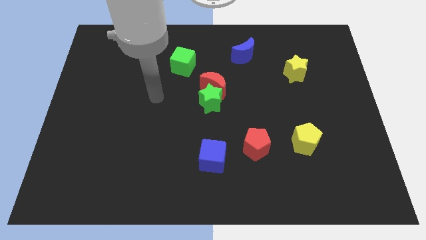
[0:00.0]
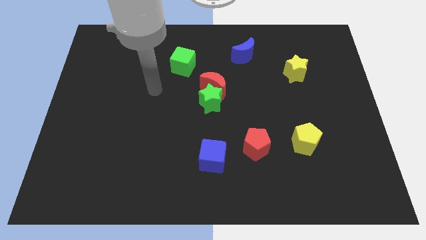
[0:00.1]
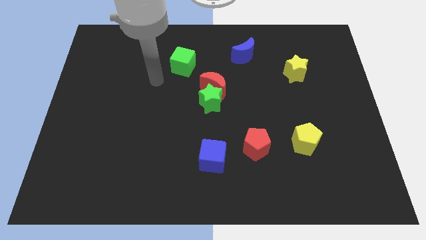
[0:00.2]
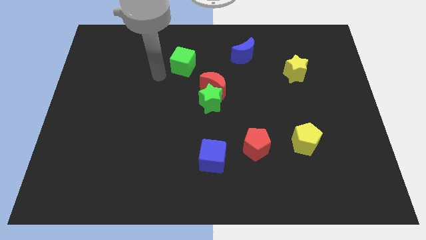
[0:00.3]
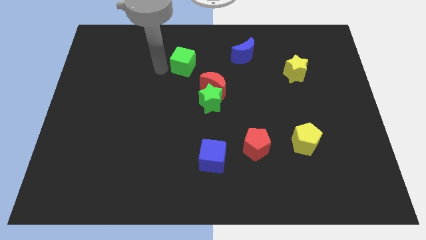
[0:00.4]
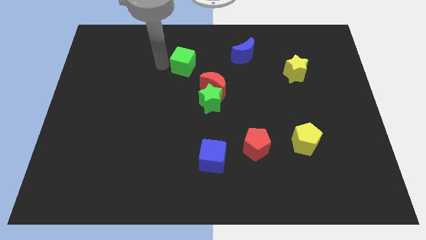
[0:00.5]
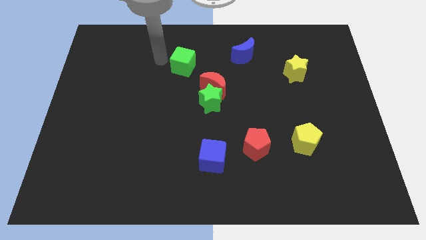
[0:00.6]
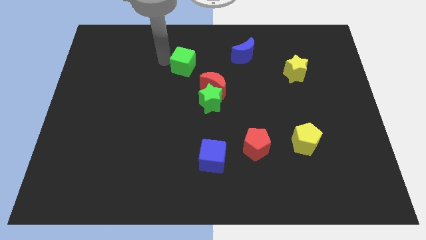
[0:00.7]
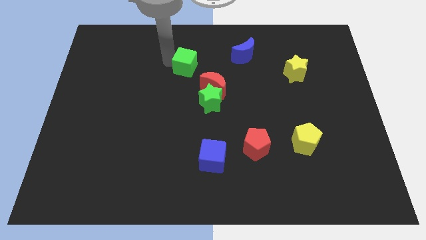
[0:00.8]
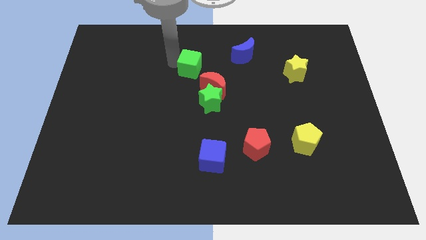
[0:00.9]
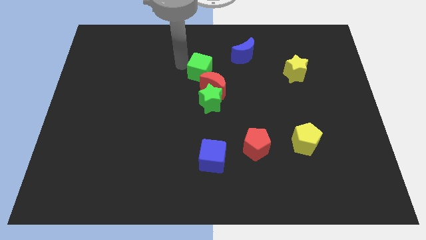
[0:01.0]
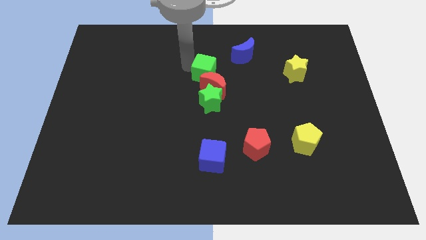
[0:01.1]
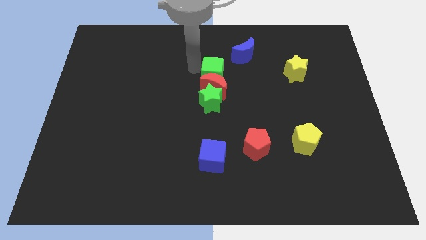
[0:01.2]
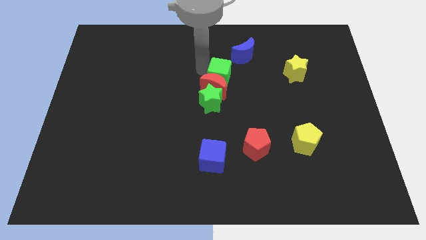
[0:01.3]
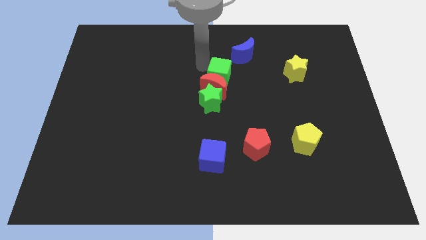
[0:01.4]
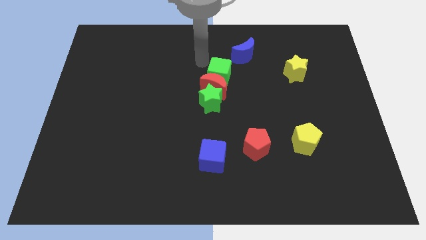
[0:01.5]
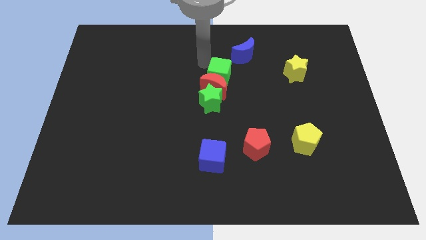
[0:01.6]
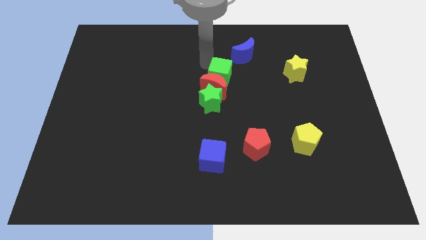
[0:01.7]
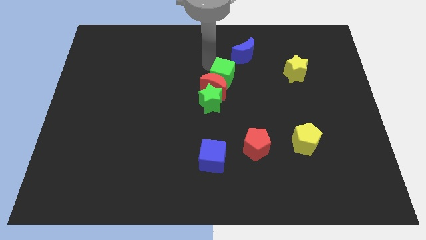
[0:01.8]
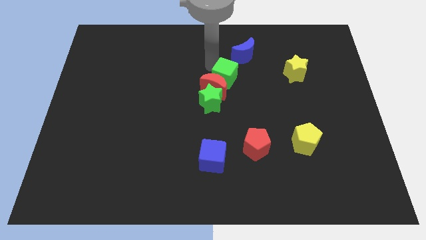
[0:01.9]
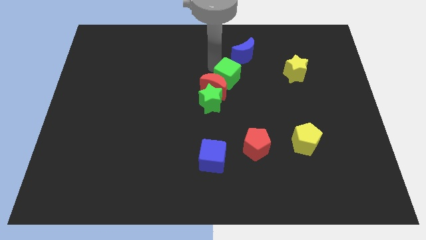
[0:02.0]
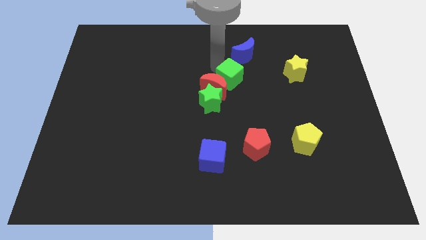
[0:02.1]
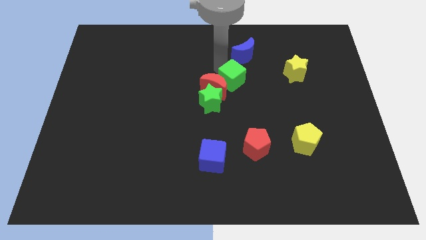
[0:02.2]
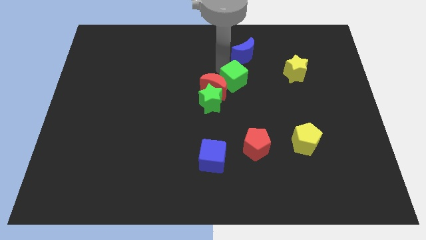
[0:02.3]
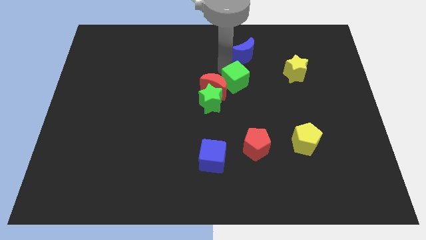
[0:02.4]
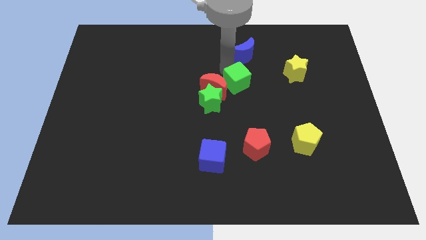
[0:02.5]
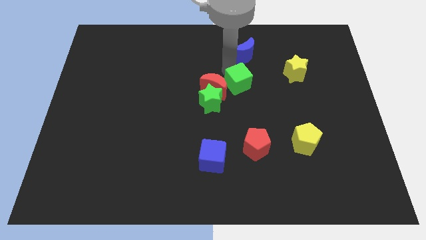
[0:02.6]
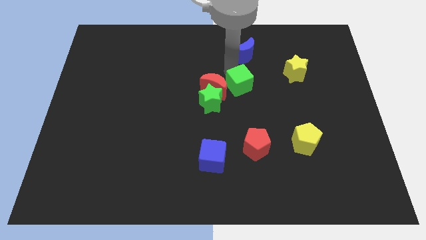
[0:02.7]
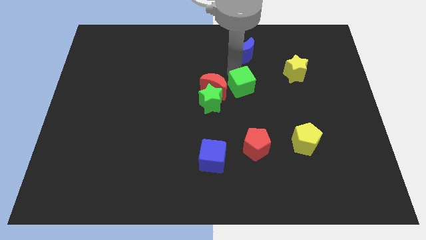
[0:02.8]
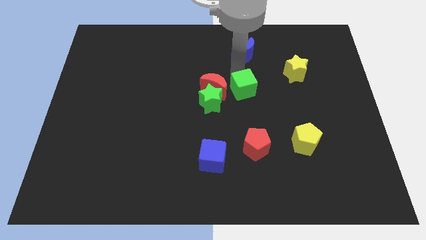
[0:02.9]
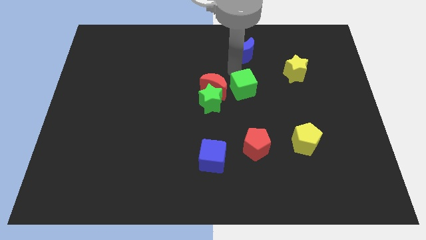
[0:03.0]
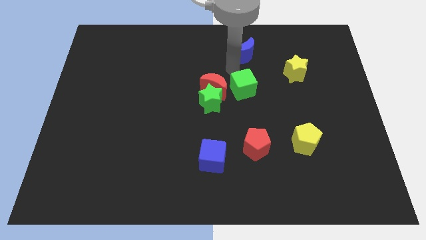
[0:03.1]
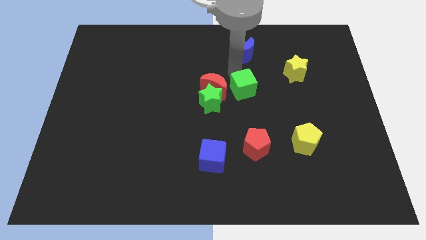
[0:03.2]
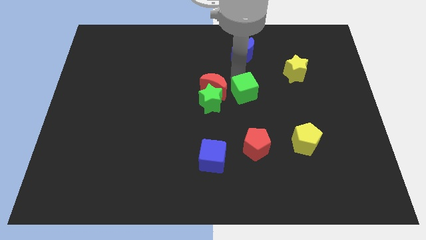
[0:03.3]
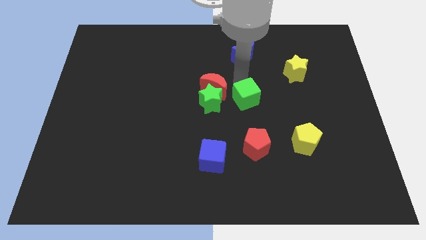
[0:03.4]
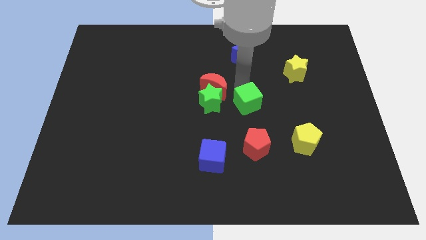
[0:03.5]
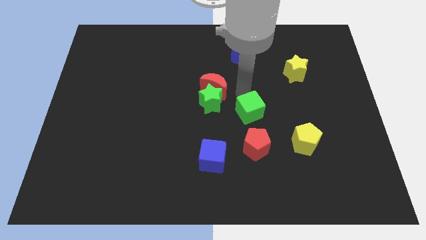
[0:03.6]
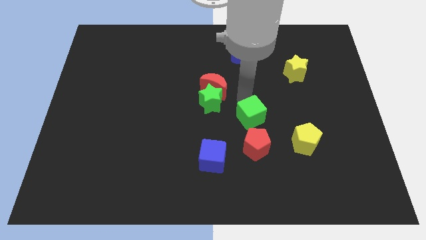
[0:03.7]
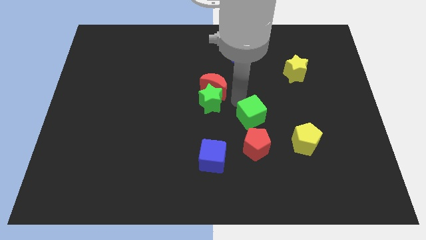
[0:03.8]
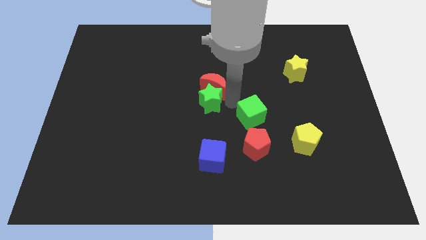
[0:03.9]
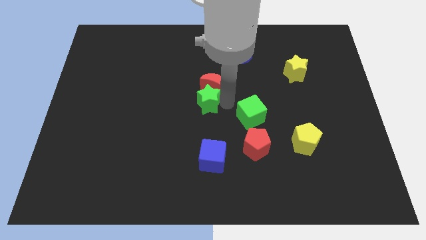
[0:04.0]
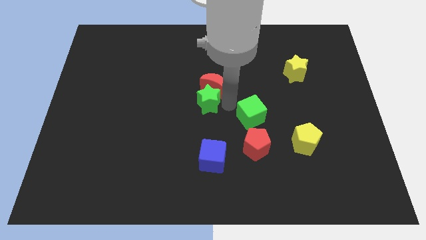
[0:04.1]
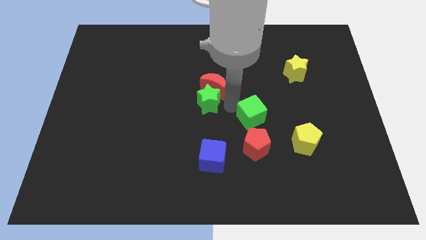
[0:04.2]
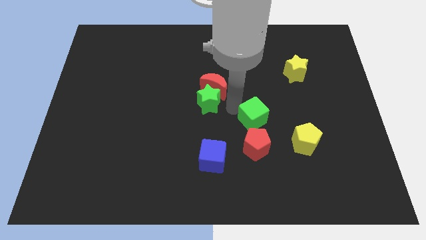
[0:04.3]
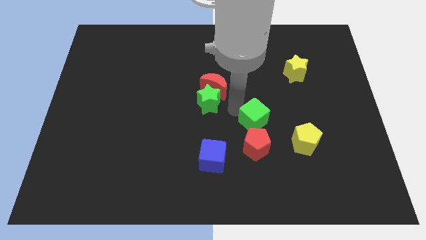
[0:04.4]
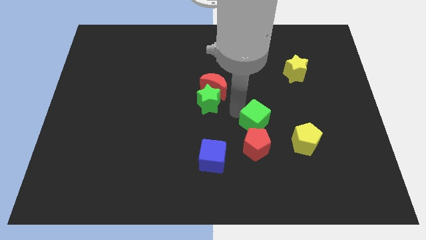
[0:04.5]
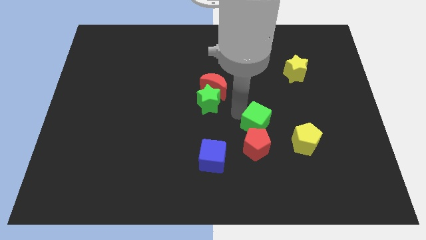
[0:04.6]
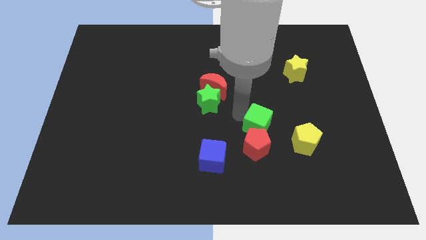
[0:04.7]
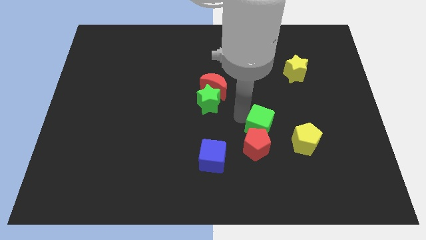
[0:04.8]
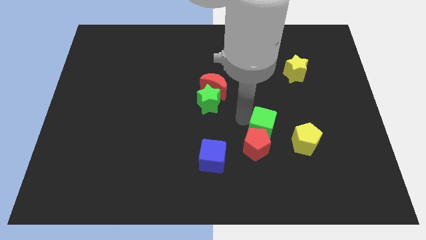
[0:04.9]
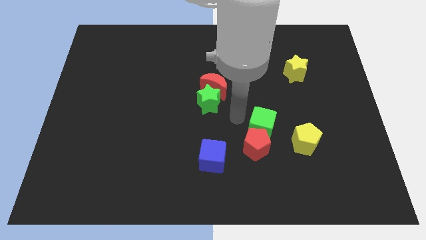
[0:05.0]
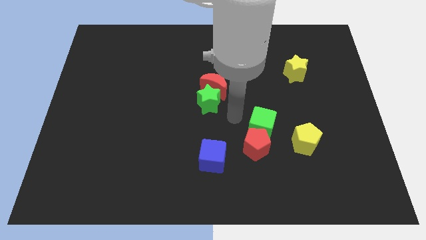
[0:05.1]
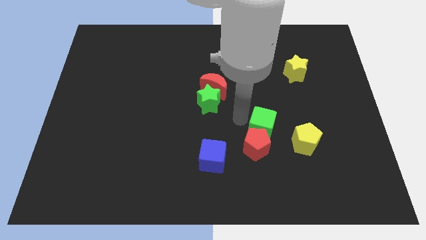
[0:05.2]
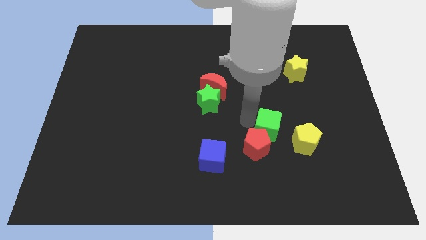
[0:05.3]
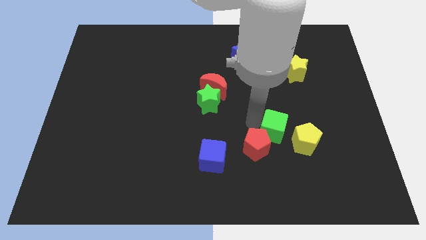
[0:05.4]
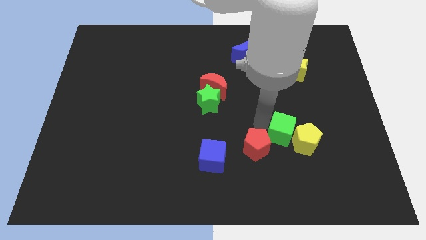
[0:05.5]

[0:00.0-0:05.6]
slide the green cube to the yellow pentagon

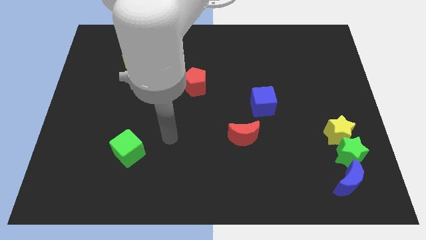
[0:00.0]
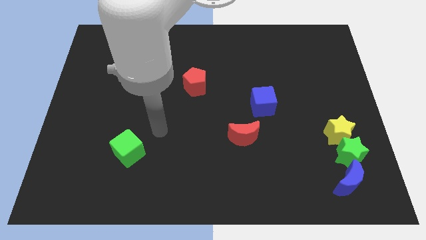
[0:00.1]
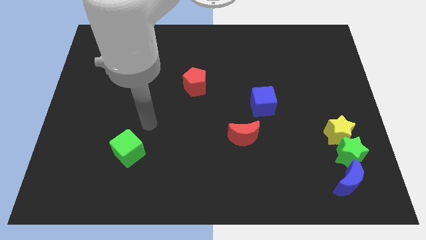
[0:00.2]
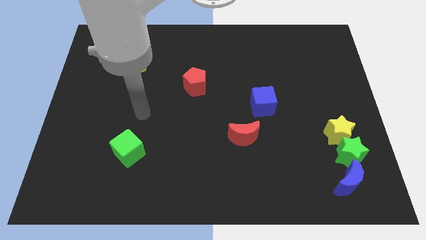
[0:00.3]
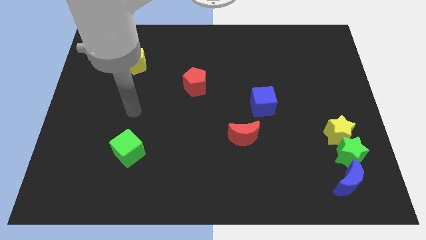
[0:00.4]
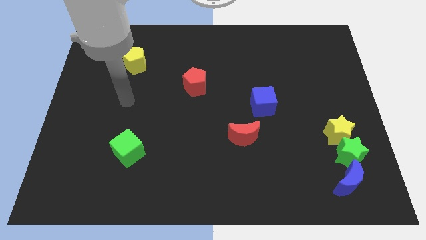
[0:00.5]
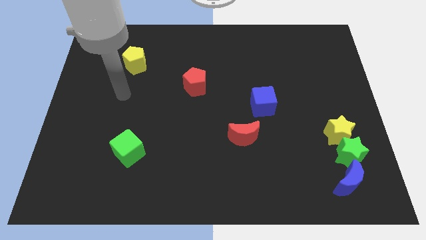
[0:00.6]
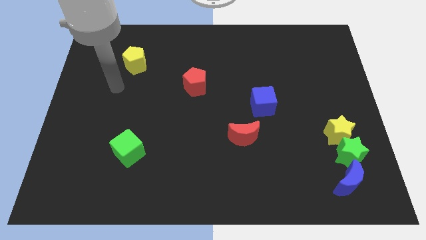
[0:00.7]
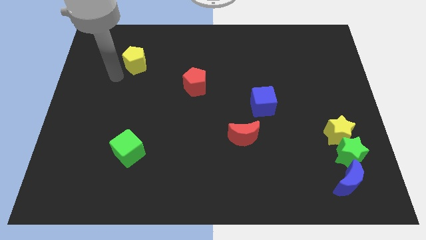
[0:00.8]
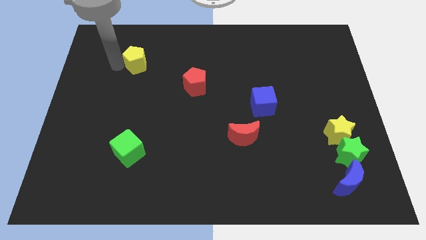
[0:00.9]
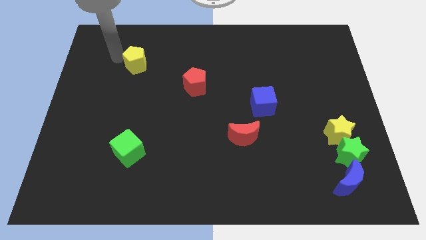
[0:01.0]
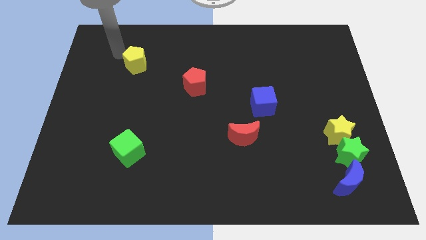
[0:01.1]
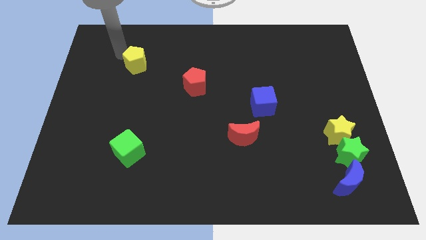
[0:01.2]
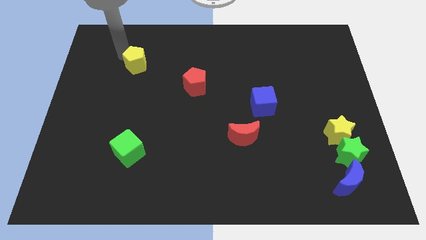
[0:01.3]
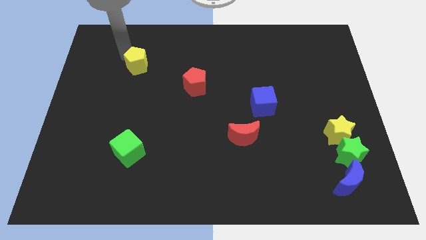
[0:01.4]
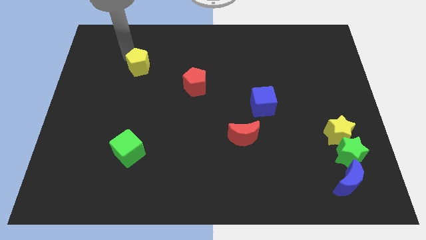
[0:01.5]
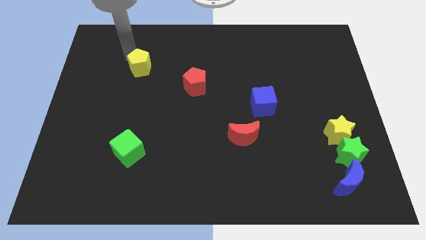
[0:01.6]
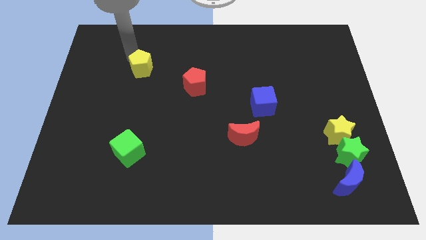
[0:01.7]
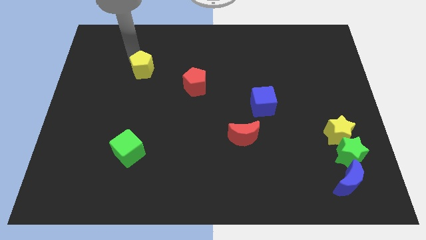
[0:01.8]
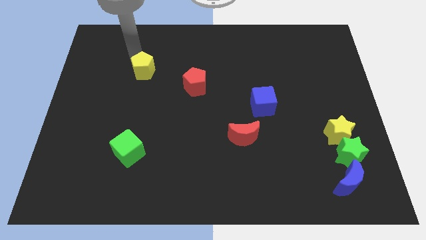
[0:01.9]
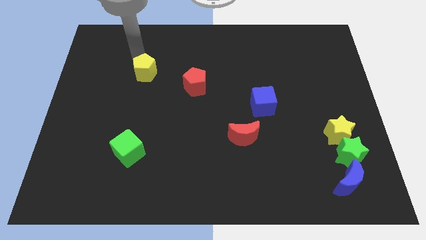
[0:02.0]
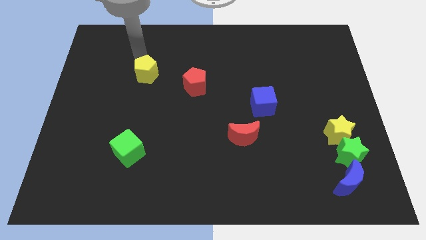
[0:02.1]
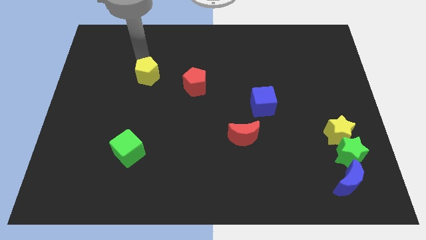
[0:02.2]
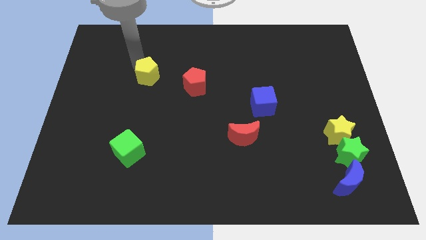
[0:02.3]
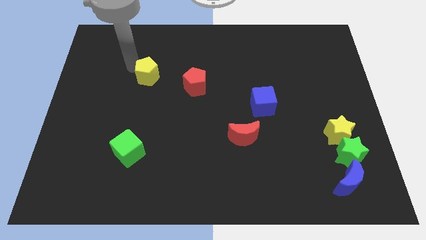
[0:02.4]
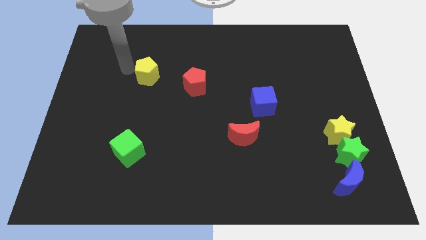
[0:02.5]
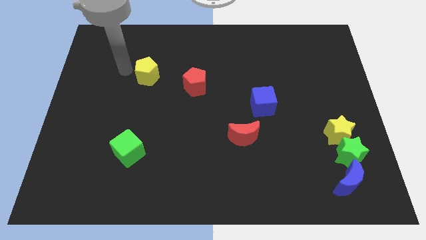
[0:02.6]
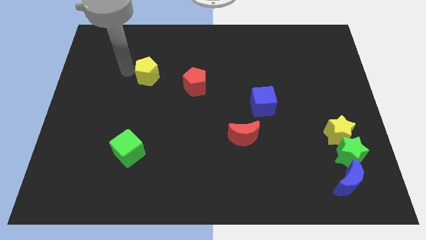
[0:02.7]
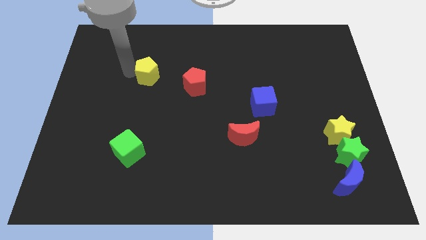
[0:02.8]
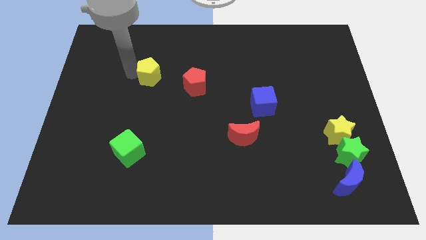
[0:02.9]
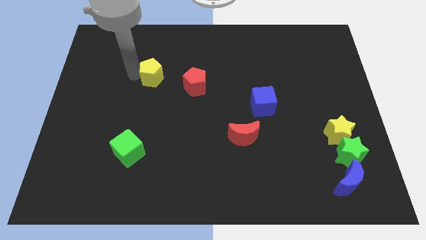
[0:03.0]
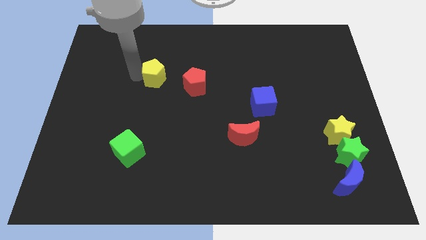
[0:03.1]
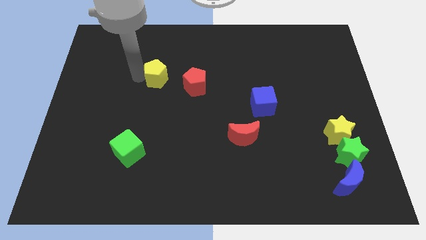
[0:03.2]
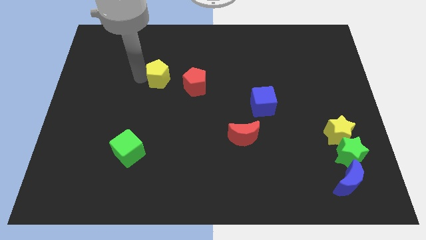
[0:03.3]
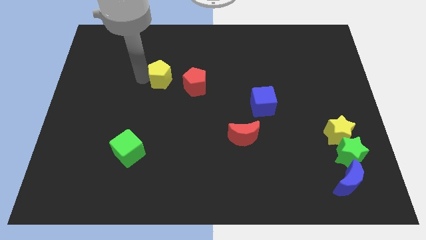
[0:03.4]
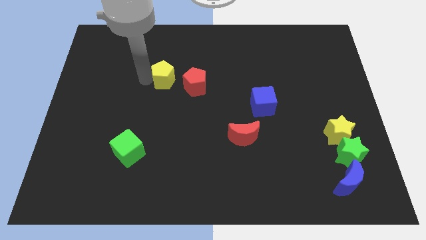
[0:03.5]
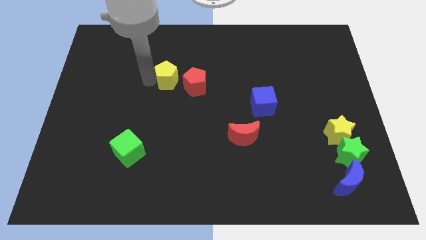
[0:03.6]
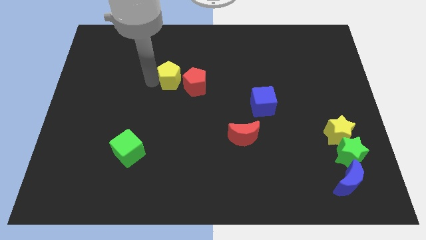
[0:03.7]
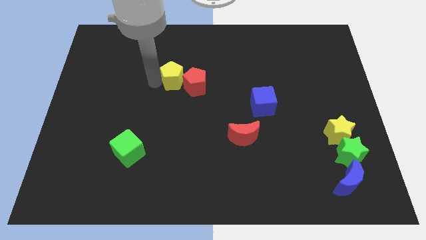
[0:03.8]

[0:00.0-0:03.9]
push the yellow pentagon next to the red pentagon
